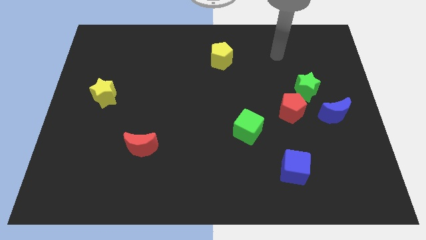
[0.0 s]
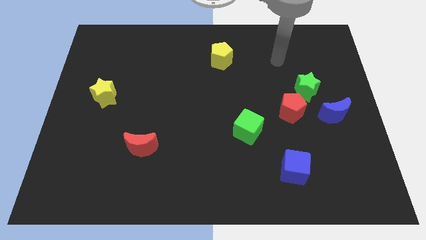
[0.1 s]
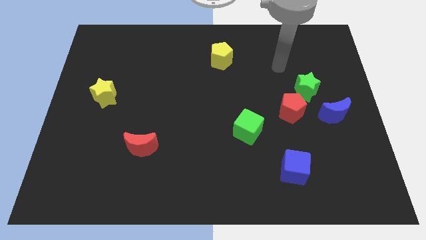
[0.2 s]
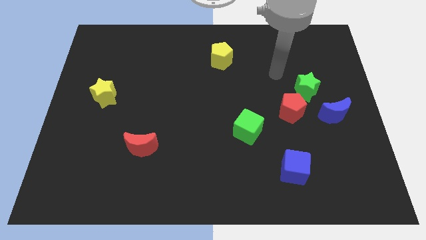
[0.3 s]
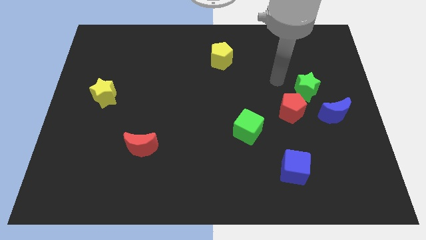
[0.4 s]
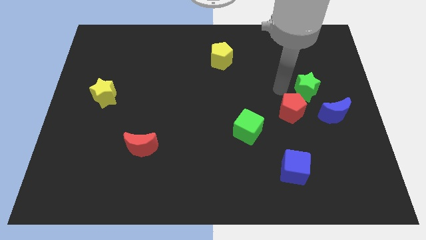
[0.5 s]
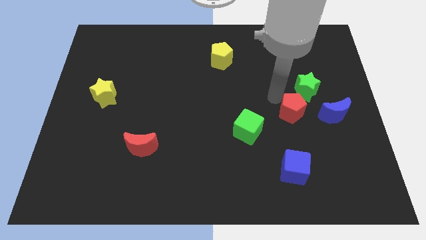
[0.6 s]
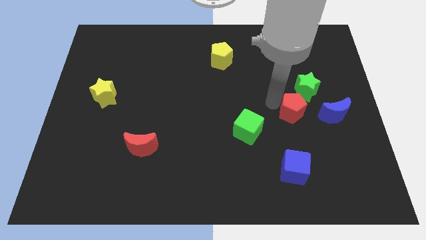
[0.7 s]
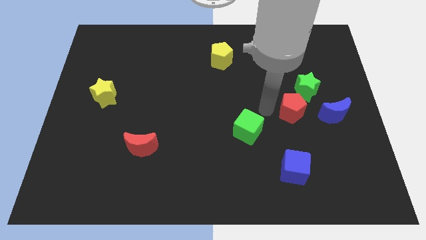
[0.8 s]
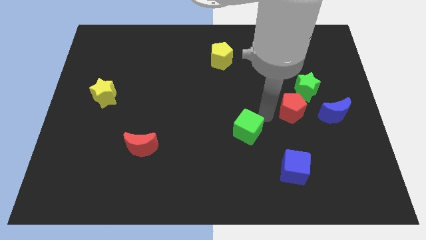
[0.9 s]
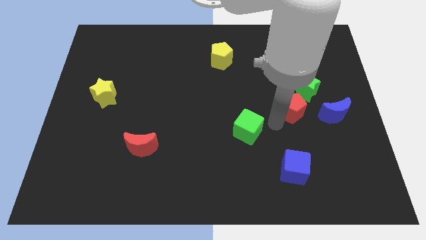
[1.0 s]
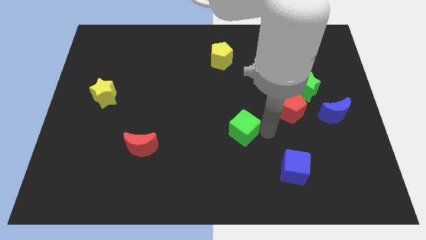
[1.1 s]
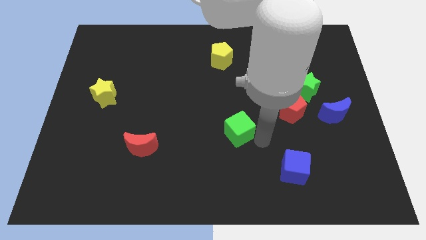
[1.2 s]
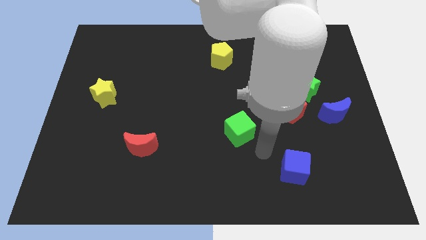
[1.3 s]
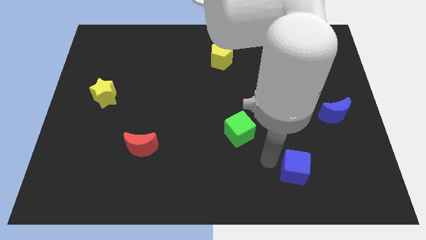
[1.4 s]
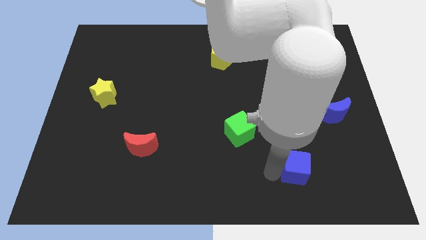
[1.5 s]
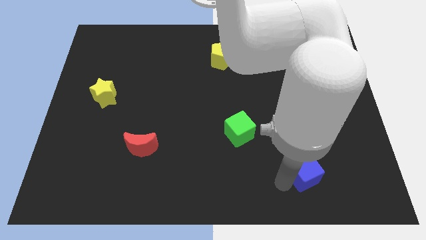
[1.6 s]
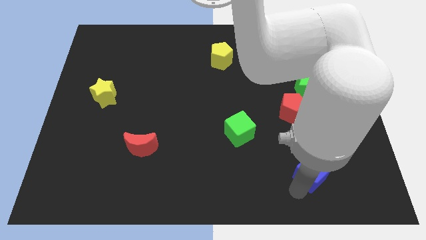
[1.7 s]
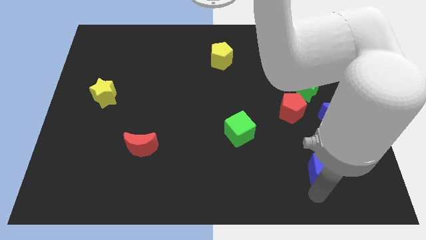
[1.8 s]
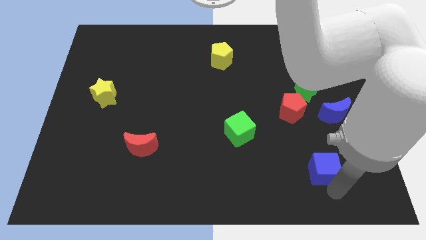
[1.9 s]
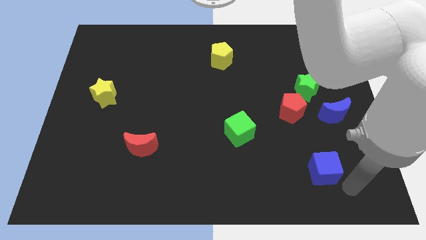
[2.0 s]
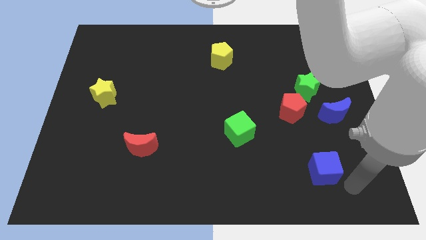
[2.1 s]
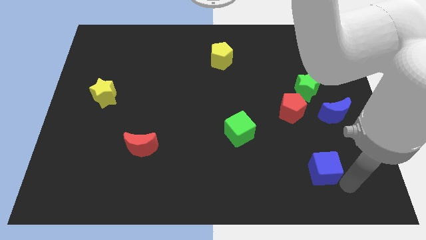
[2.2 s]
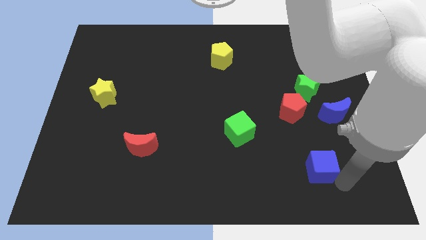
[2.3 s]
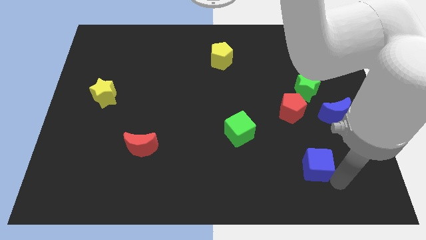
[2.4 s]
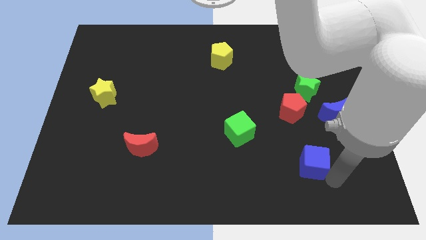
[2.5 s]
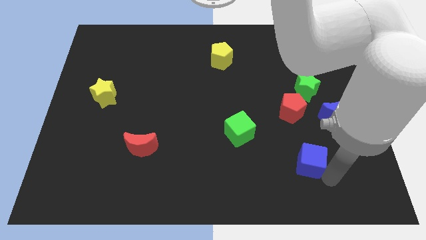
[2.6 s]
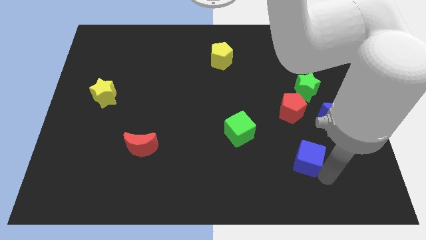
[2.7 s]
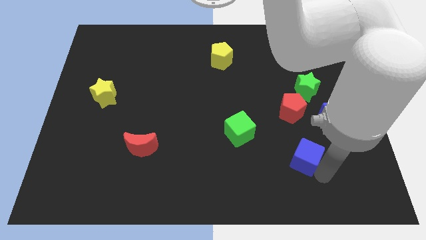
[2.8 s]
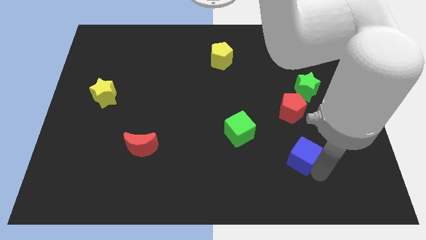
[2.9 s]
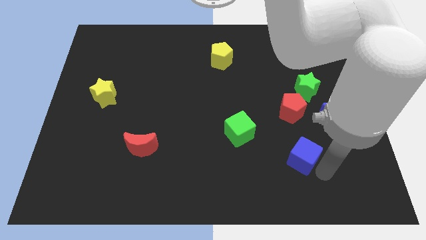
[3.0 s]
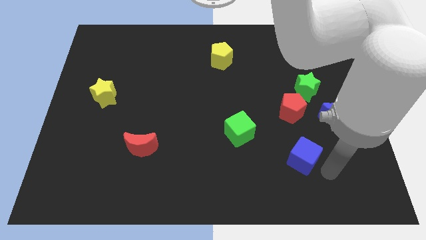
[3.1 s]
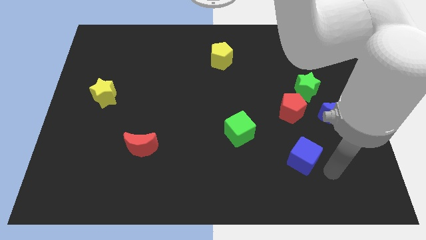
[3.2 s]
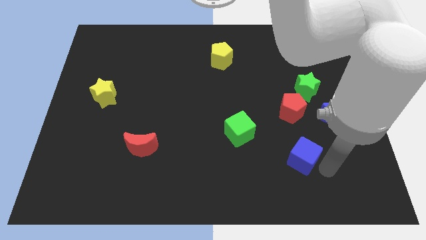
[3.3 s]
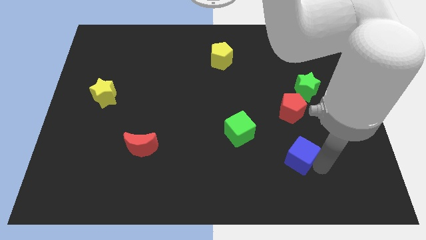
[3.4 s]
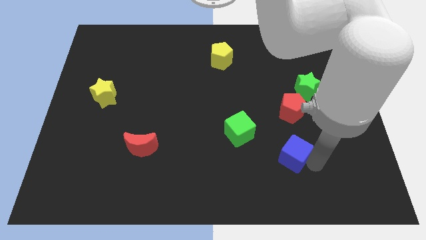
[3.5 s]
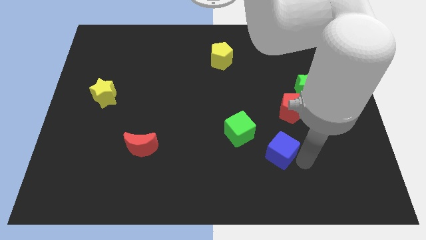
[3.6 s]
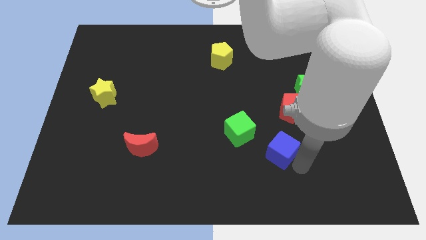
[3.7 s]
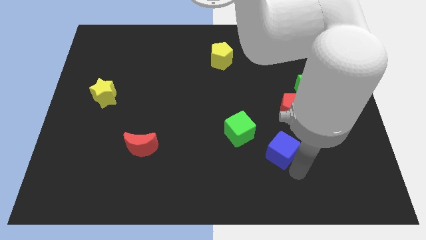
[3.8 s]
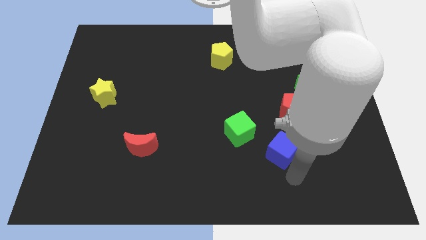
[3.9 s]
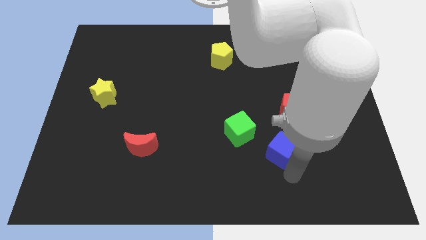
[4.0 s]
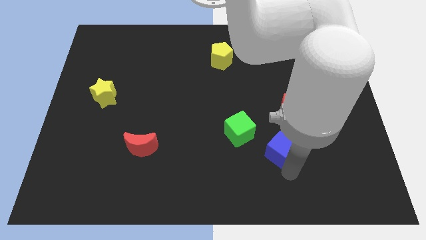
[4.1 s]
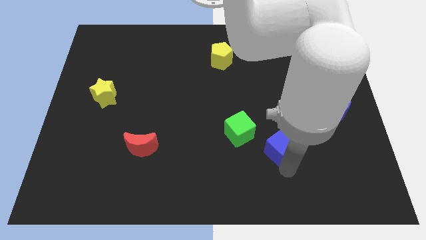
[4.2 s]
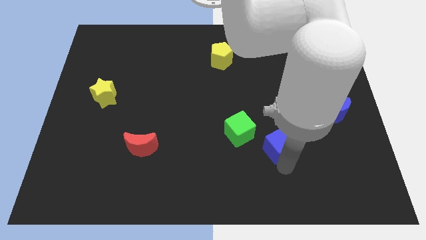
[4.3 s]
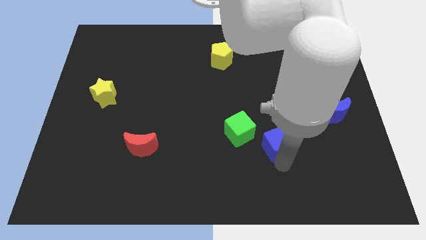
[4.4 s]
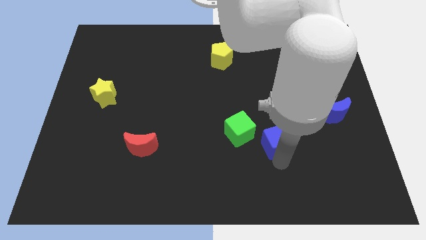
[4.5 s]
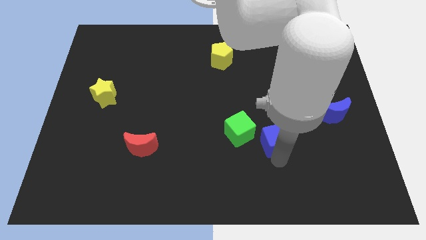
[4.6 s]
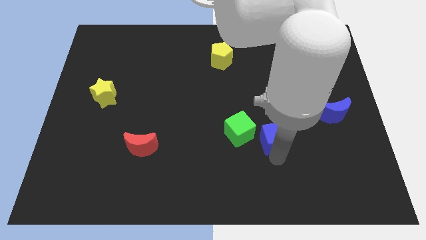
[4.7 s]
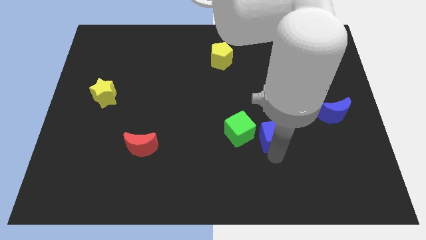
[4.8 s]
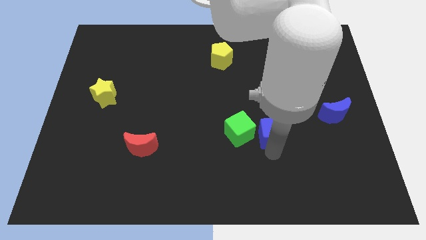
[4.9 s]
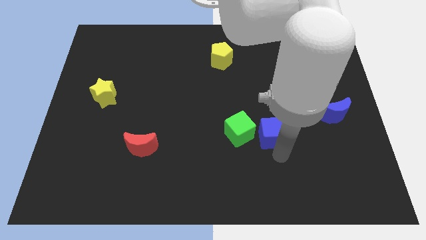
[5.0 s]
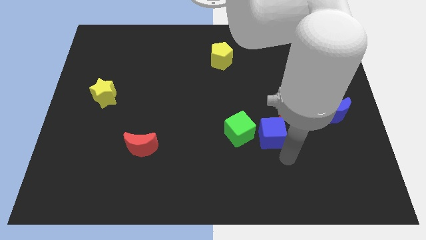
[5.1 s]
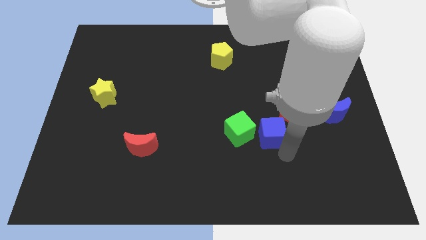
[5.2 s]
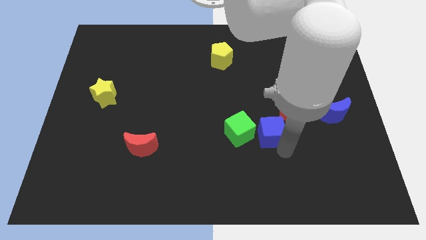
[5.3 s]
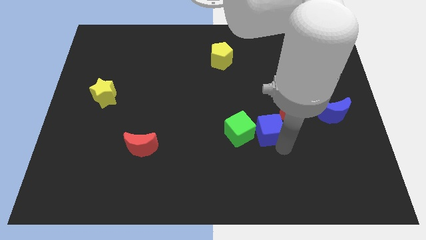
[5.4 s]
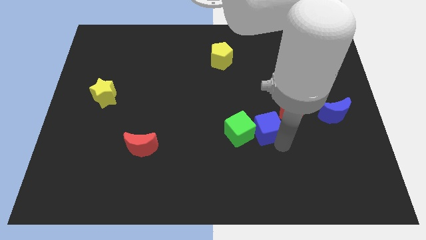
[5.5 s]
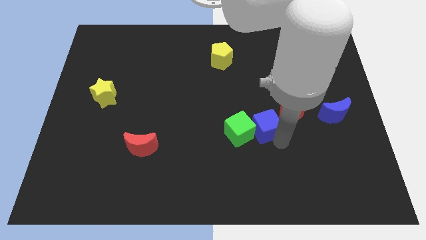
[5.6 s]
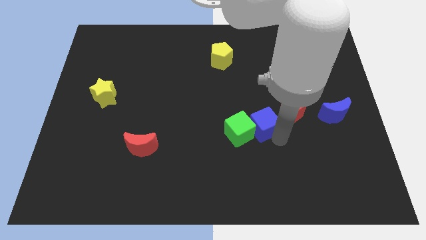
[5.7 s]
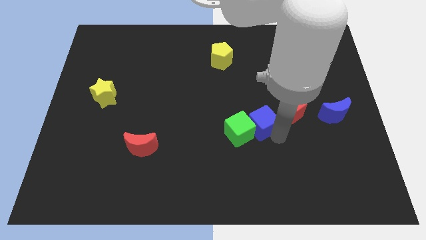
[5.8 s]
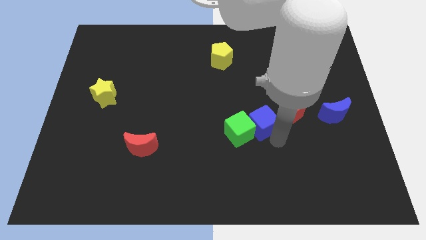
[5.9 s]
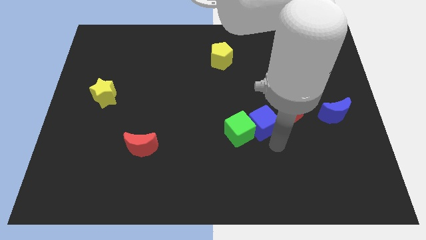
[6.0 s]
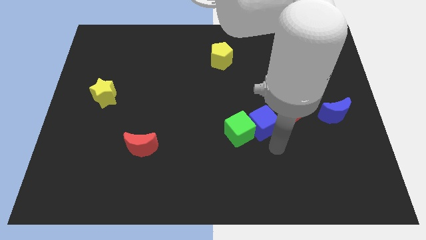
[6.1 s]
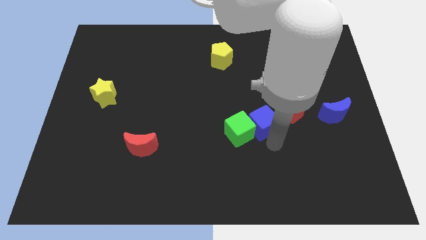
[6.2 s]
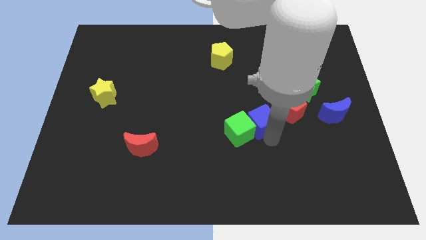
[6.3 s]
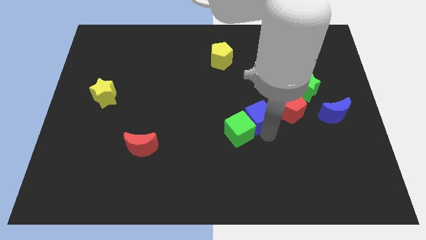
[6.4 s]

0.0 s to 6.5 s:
move the blue cube to the top of the green cube
